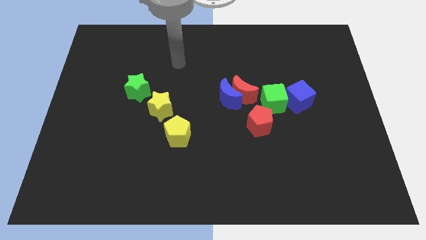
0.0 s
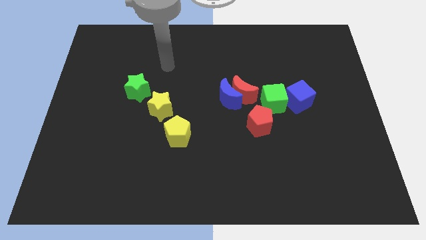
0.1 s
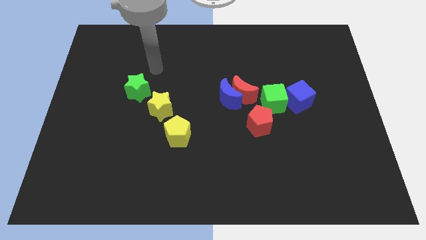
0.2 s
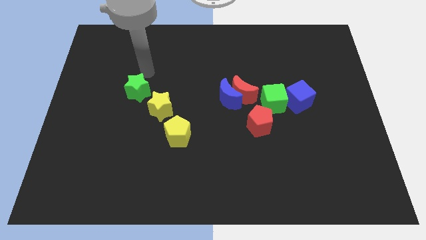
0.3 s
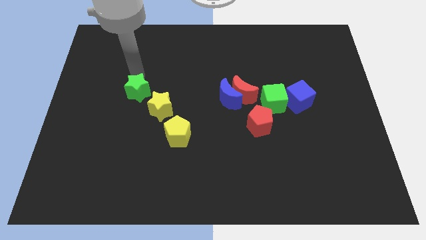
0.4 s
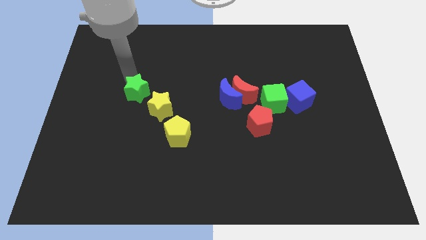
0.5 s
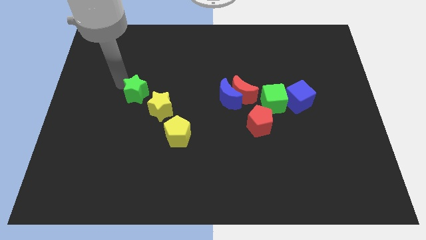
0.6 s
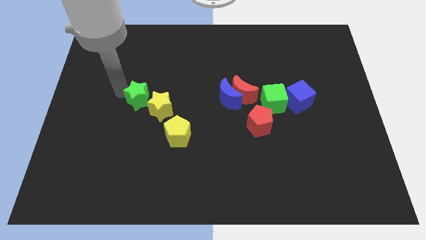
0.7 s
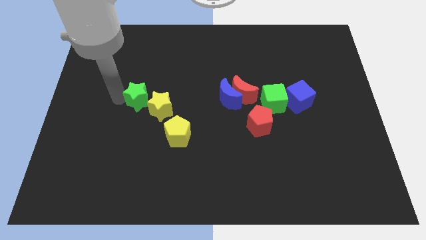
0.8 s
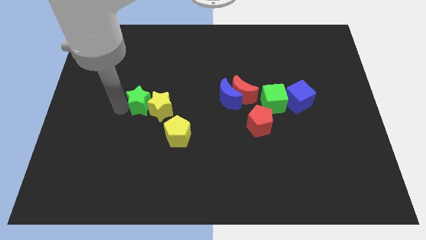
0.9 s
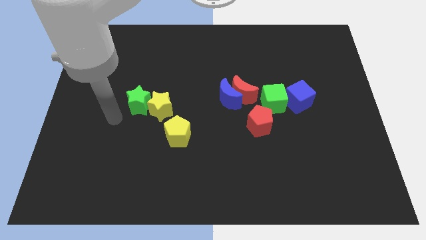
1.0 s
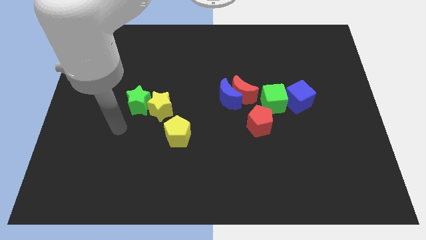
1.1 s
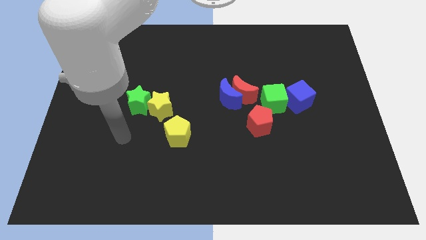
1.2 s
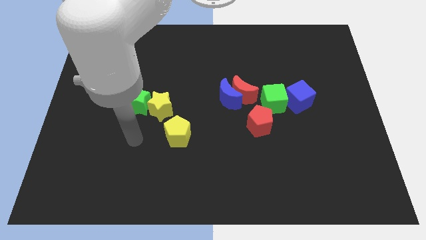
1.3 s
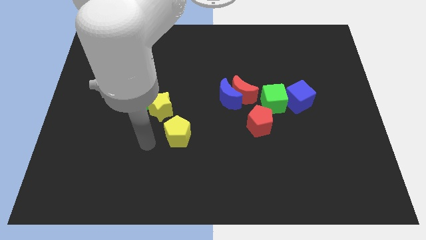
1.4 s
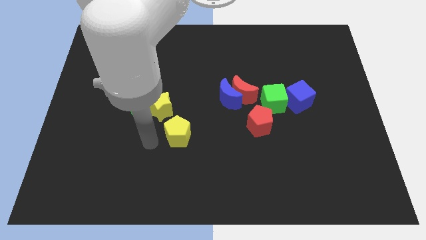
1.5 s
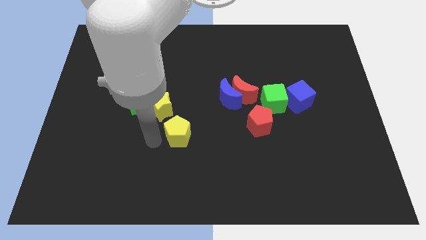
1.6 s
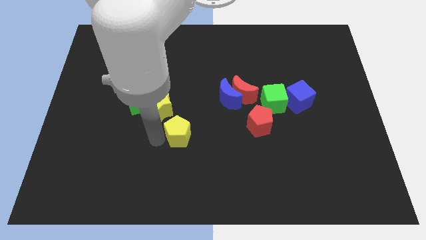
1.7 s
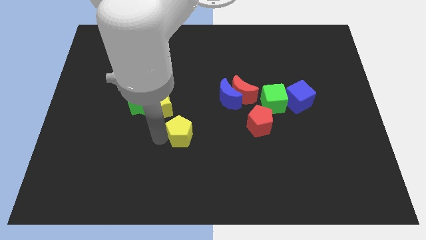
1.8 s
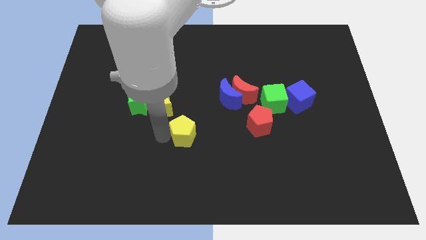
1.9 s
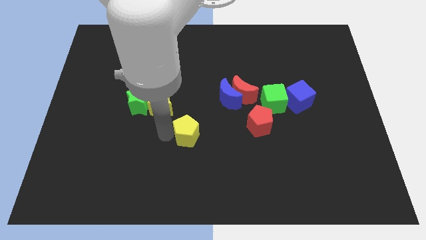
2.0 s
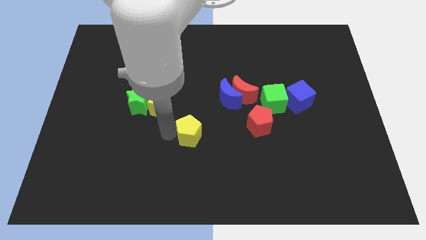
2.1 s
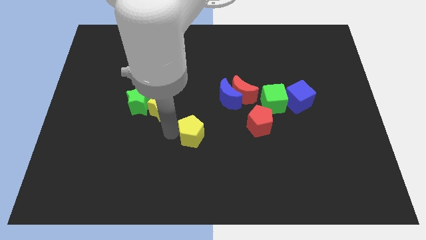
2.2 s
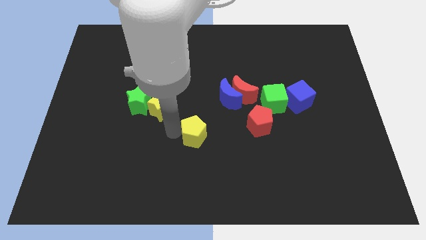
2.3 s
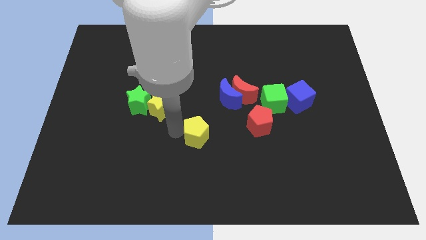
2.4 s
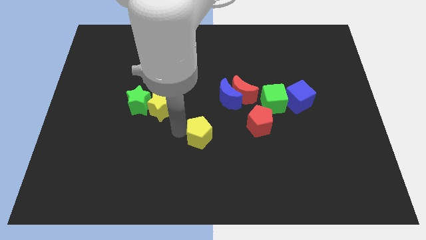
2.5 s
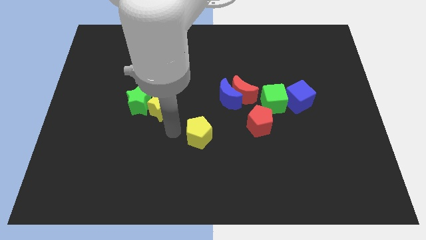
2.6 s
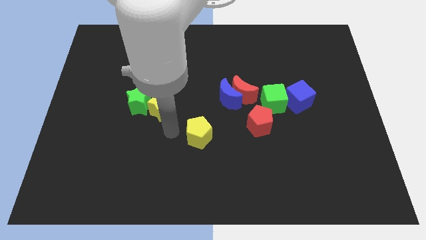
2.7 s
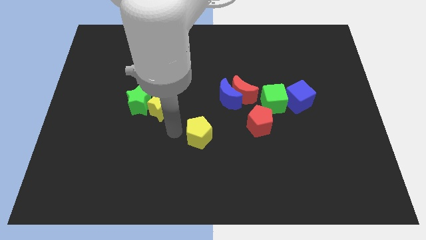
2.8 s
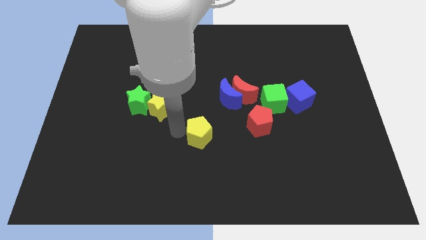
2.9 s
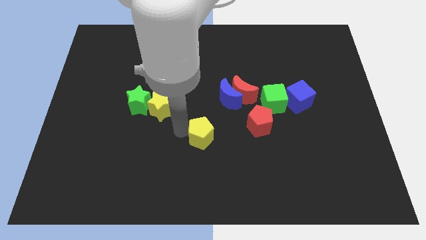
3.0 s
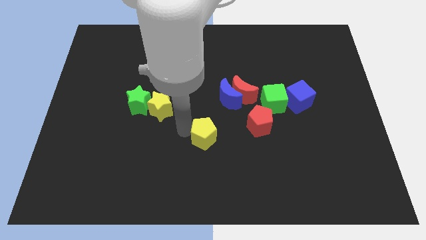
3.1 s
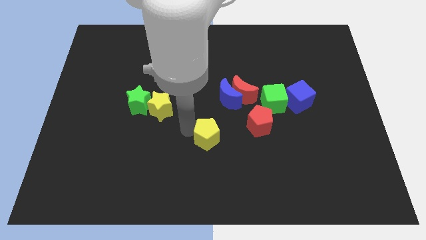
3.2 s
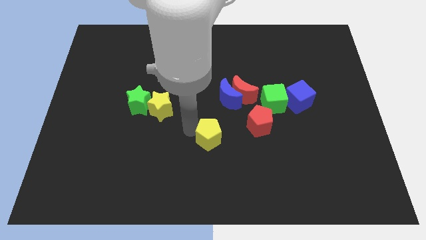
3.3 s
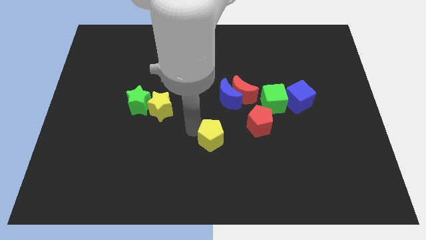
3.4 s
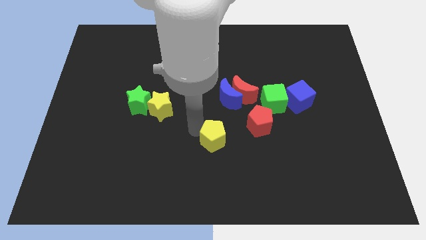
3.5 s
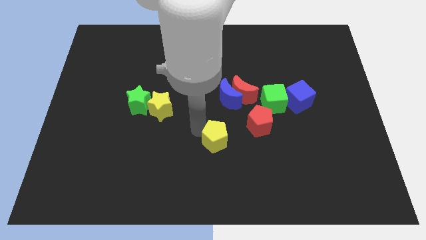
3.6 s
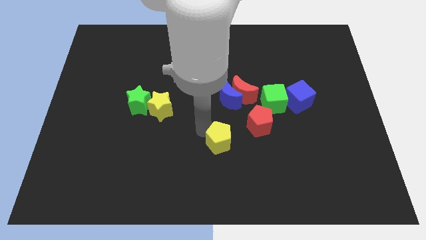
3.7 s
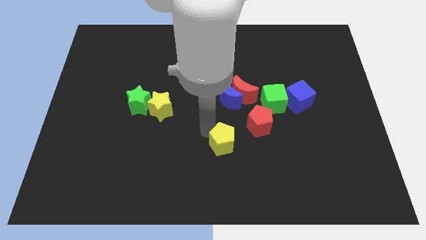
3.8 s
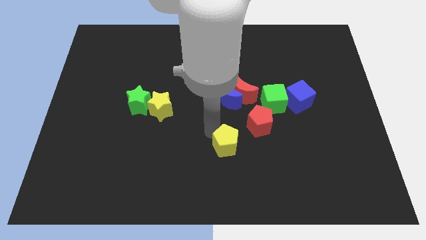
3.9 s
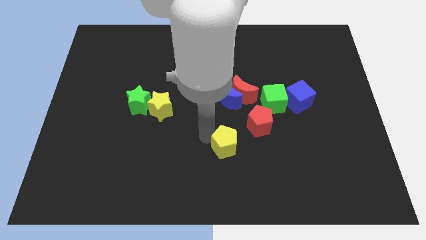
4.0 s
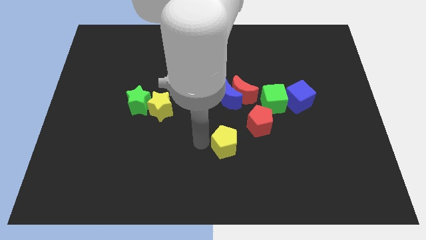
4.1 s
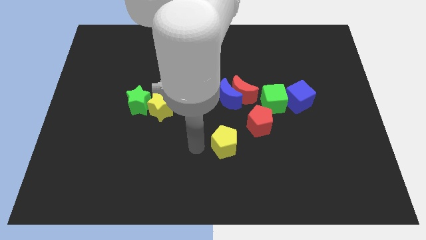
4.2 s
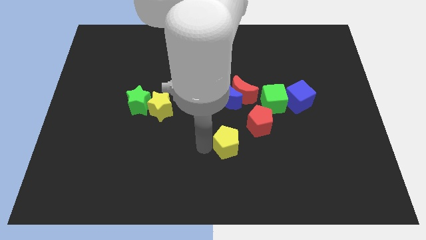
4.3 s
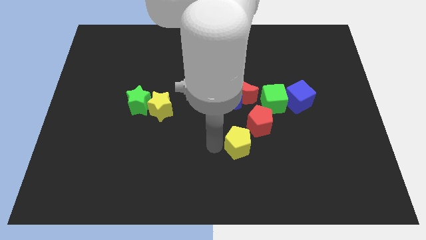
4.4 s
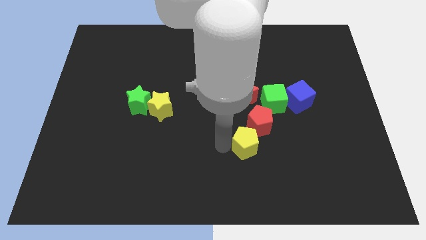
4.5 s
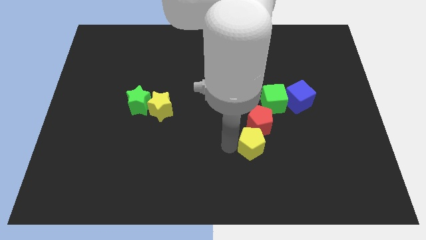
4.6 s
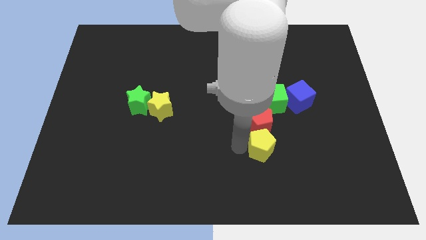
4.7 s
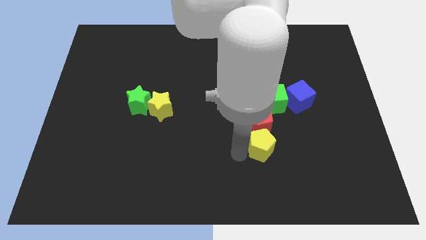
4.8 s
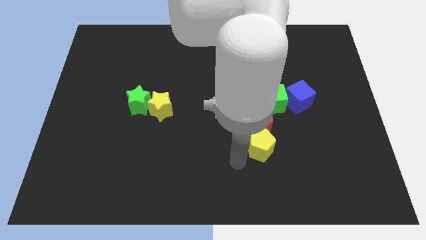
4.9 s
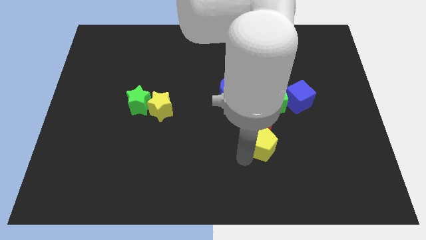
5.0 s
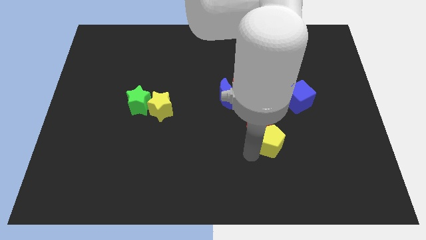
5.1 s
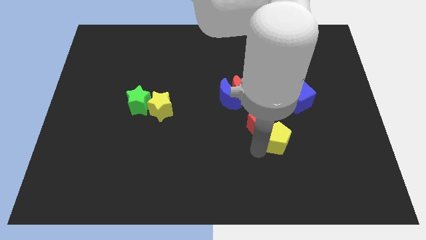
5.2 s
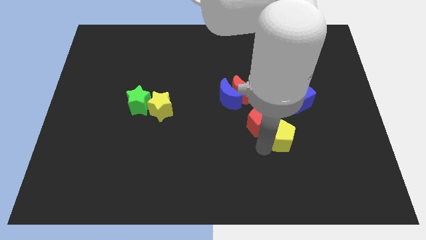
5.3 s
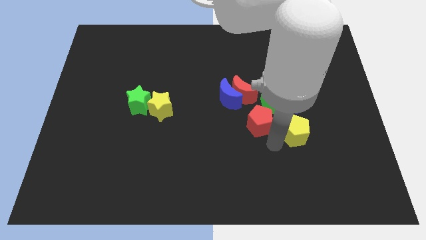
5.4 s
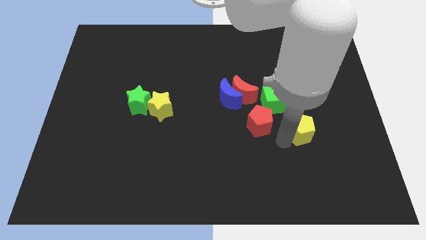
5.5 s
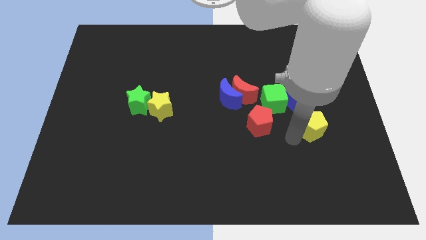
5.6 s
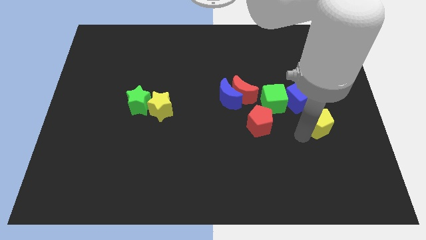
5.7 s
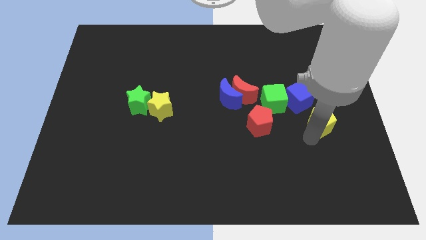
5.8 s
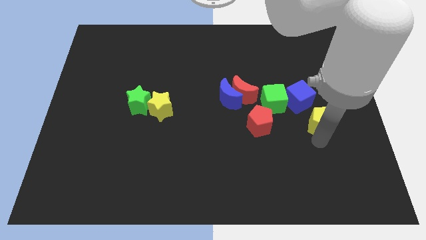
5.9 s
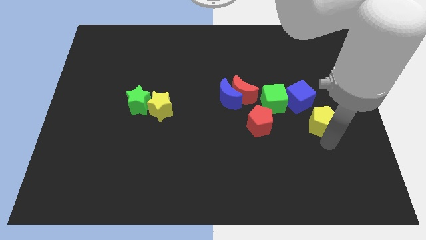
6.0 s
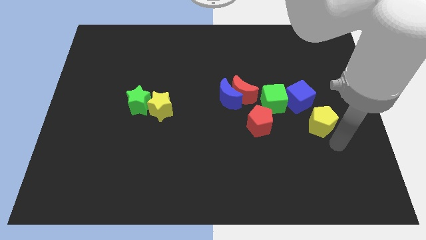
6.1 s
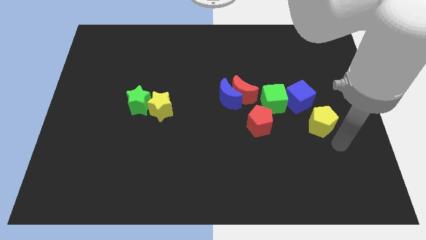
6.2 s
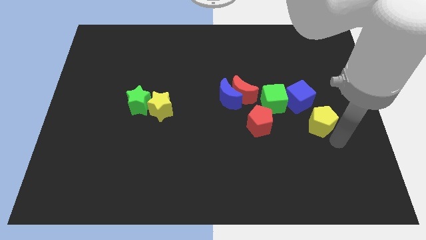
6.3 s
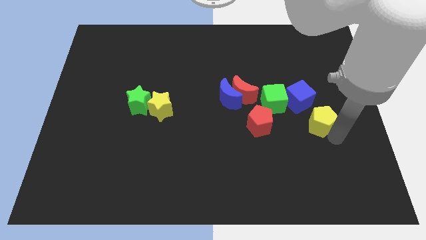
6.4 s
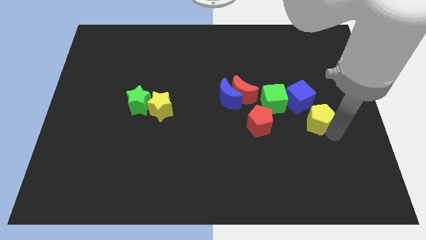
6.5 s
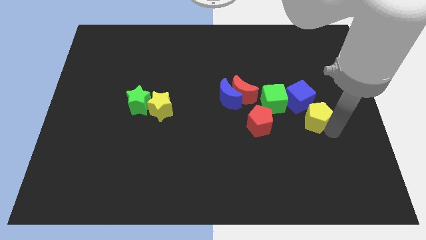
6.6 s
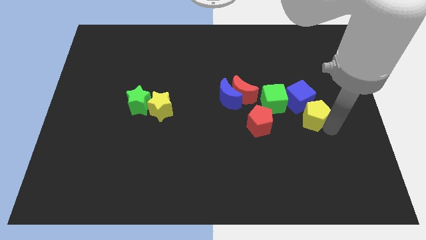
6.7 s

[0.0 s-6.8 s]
move the yellow pentagon close to the blue cube
